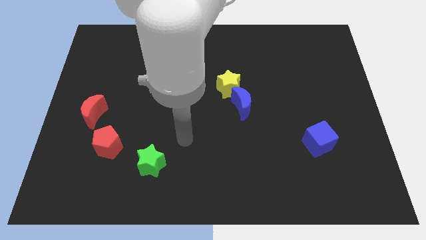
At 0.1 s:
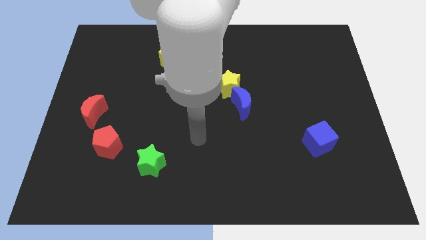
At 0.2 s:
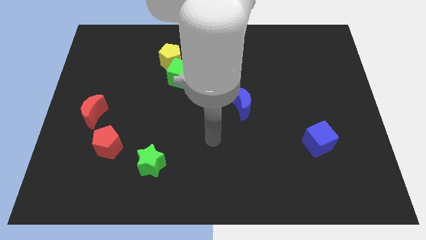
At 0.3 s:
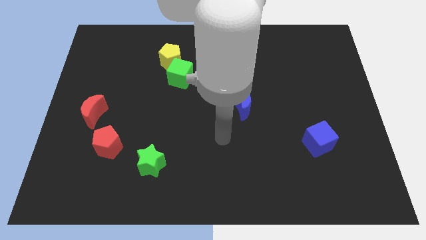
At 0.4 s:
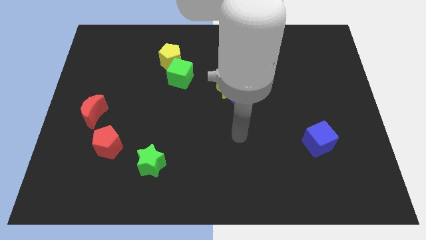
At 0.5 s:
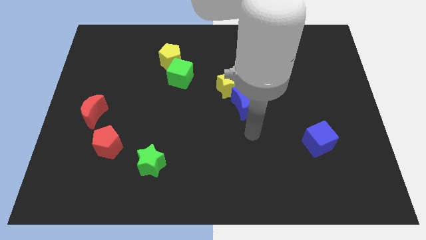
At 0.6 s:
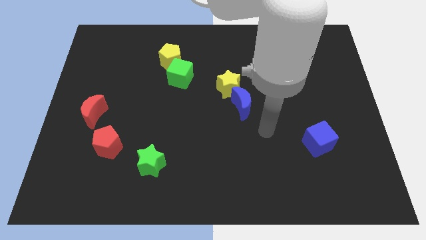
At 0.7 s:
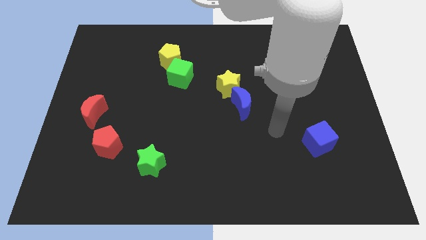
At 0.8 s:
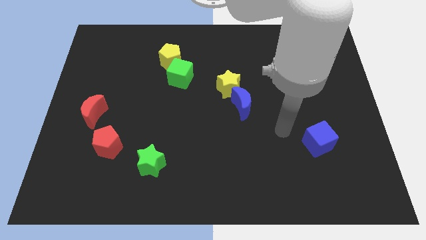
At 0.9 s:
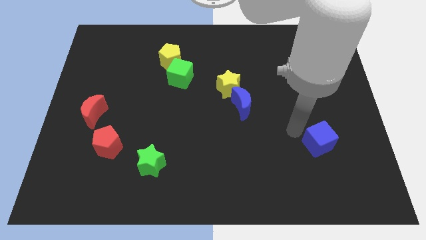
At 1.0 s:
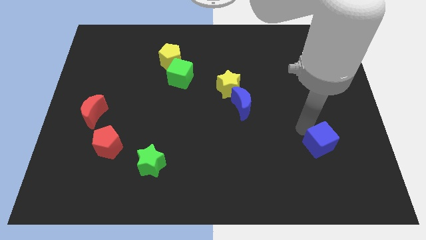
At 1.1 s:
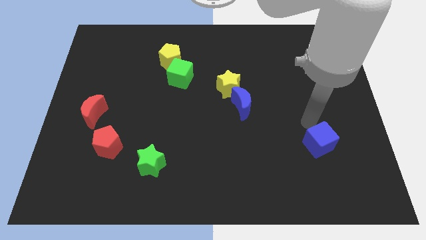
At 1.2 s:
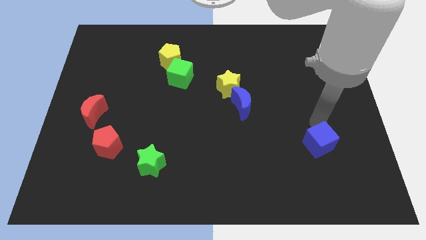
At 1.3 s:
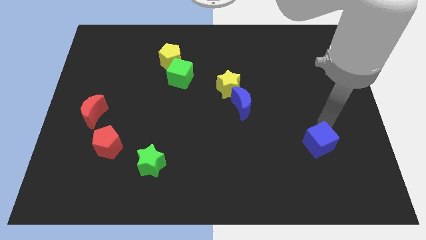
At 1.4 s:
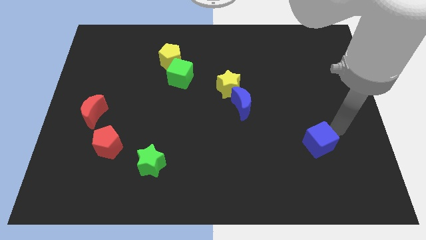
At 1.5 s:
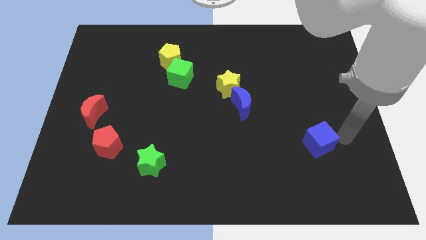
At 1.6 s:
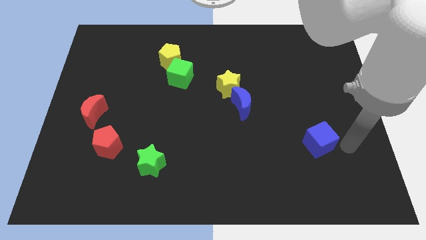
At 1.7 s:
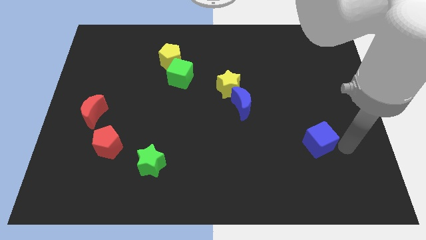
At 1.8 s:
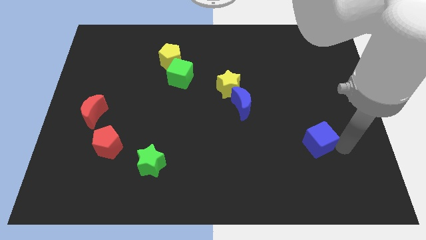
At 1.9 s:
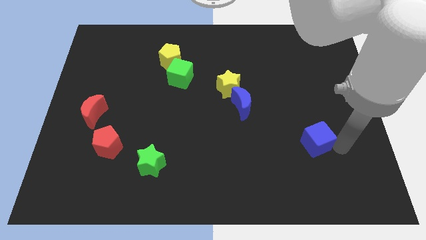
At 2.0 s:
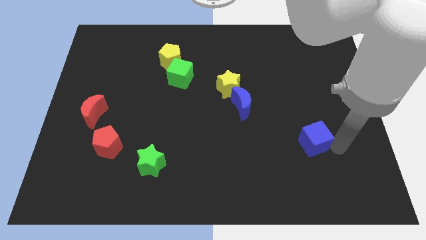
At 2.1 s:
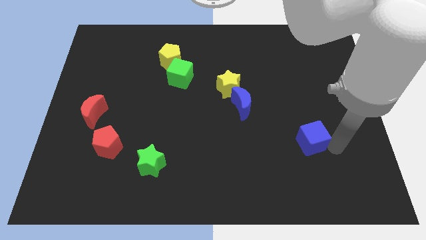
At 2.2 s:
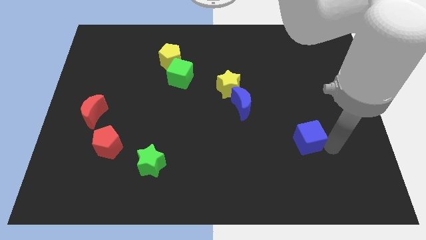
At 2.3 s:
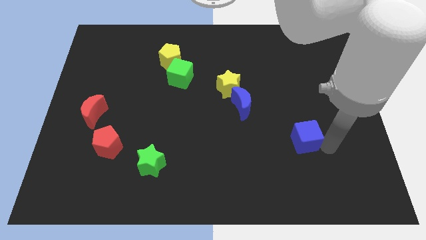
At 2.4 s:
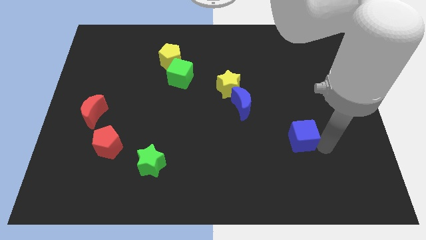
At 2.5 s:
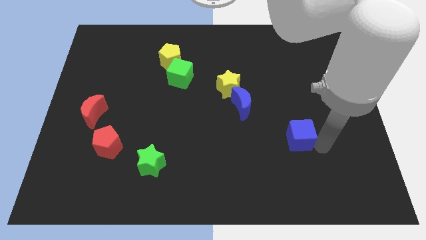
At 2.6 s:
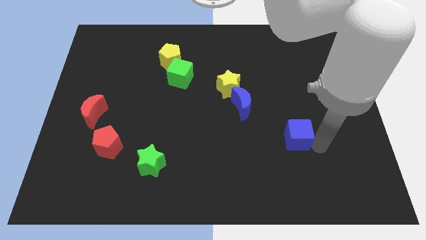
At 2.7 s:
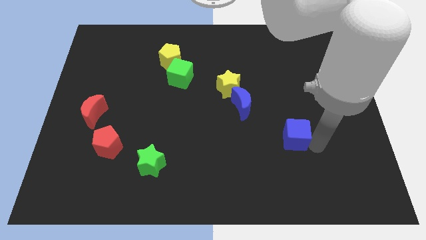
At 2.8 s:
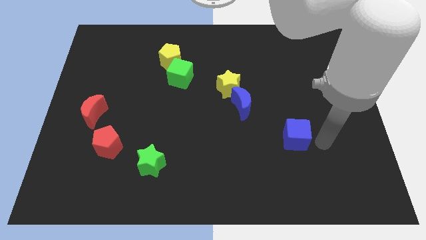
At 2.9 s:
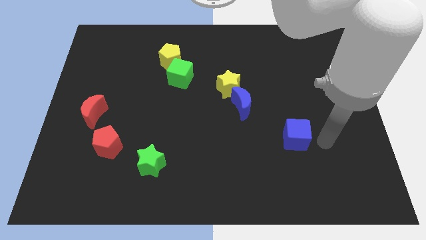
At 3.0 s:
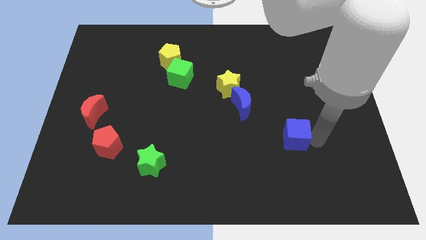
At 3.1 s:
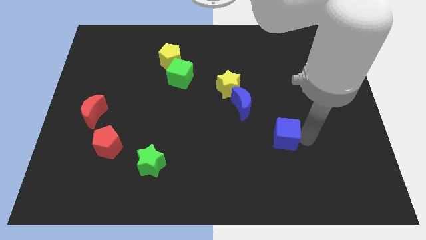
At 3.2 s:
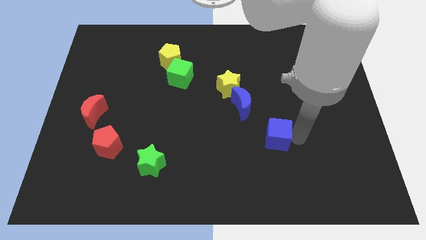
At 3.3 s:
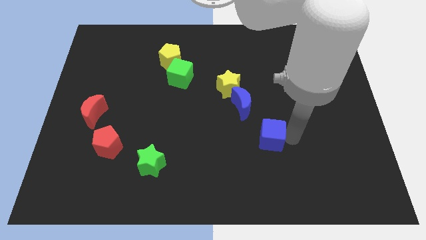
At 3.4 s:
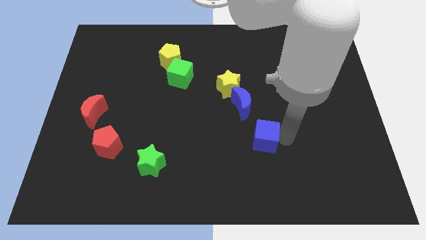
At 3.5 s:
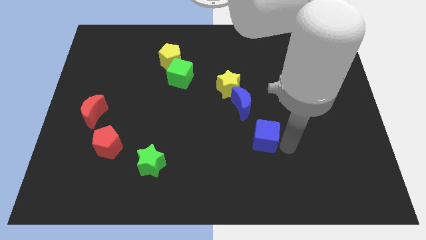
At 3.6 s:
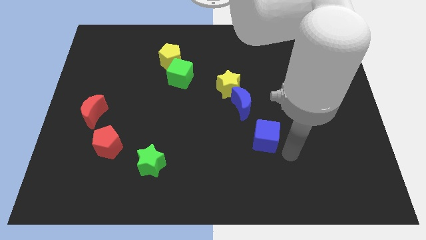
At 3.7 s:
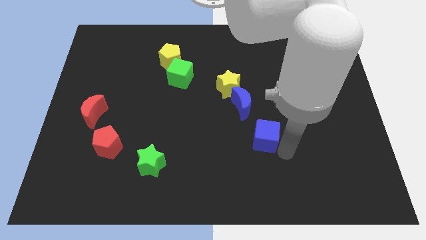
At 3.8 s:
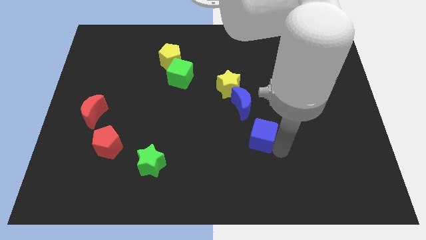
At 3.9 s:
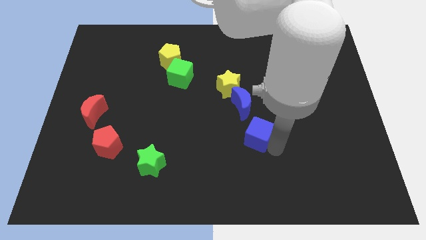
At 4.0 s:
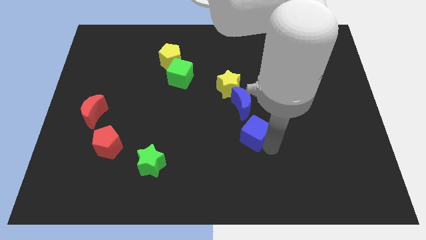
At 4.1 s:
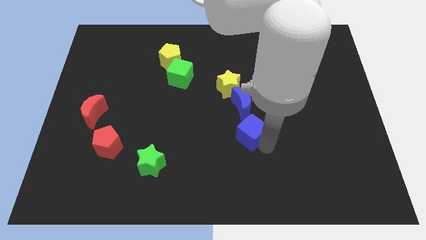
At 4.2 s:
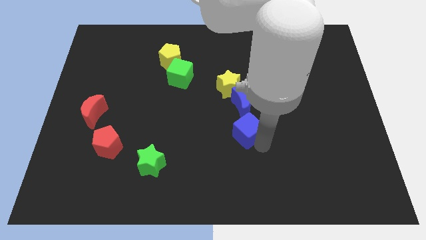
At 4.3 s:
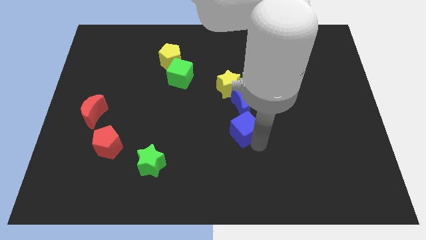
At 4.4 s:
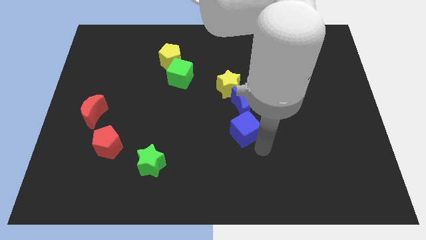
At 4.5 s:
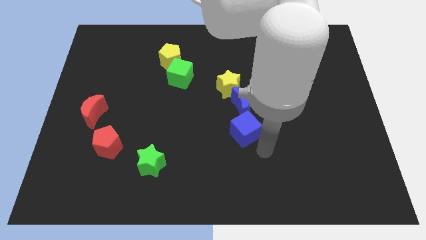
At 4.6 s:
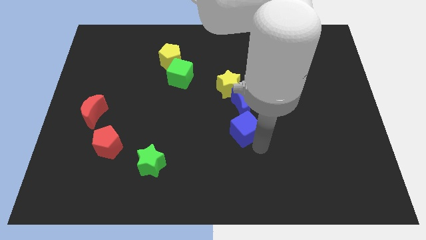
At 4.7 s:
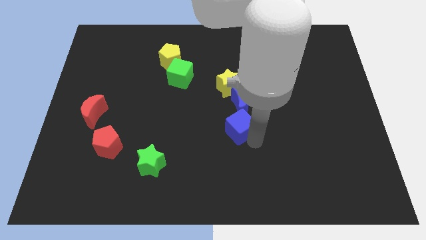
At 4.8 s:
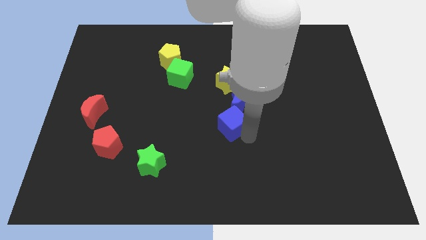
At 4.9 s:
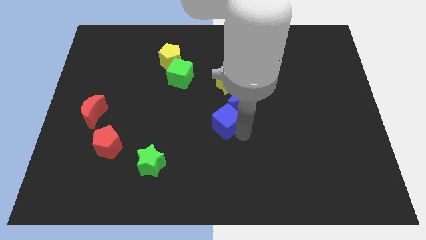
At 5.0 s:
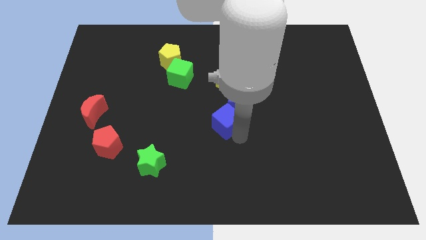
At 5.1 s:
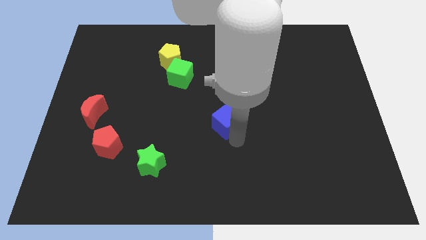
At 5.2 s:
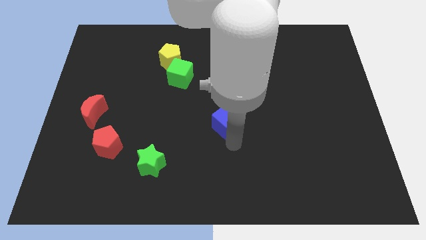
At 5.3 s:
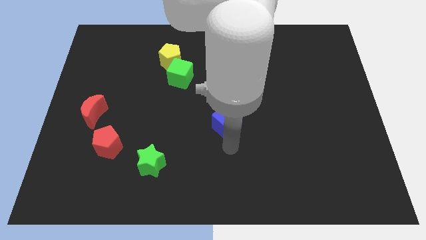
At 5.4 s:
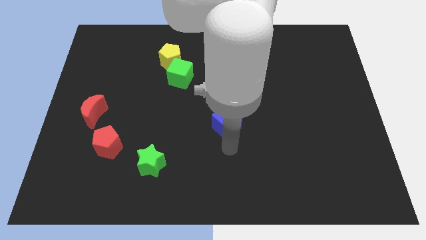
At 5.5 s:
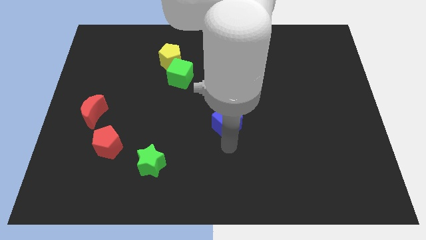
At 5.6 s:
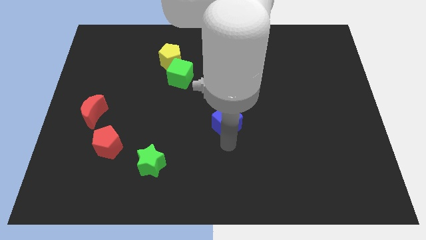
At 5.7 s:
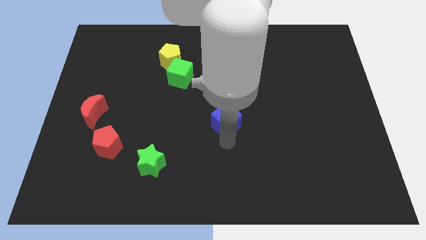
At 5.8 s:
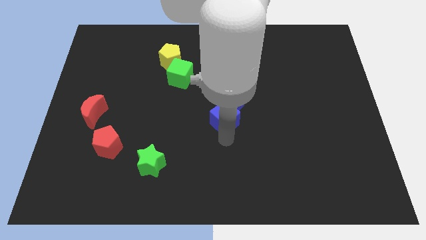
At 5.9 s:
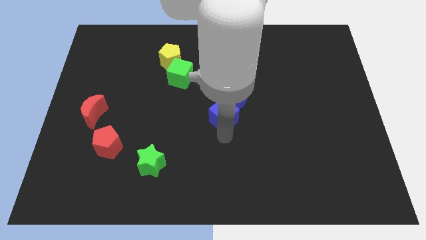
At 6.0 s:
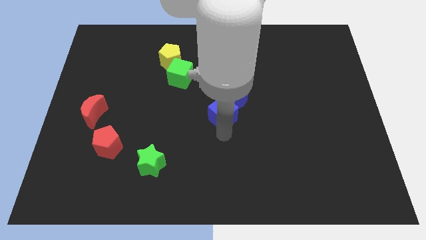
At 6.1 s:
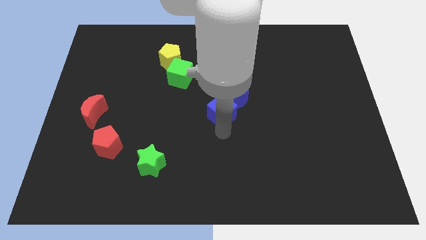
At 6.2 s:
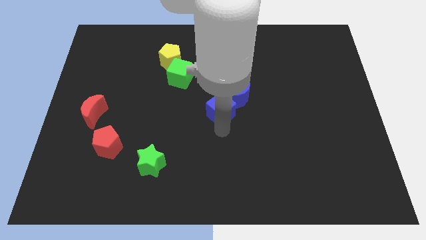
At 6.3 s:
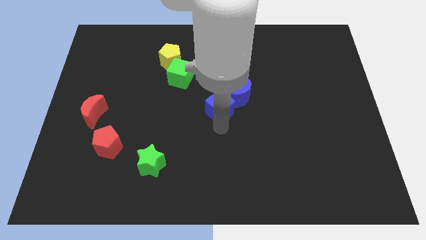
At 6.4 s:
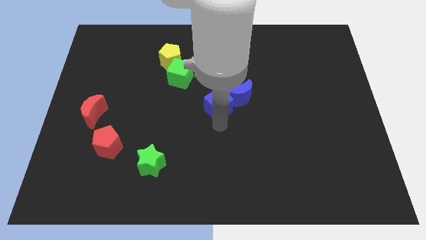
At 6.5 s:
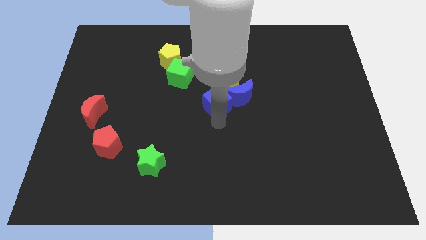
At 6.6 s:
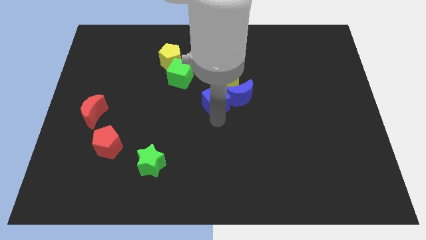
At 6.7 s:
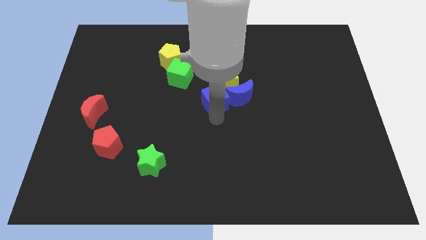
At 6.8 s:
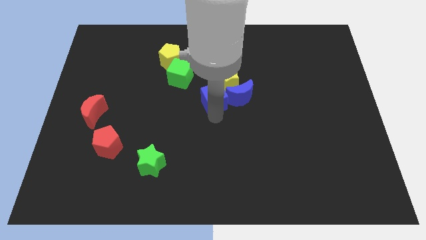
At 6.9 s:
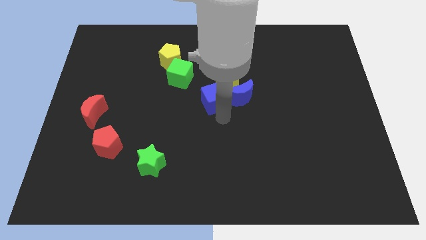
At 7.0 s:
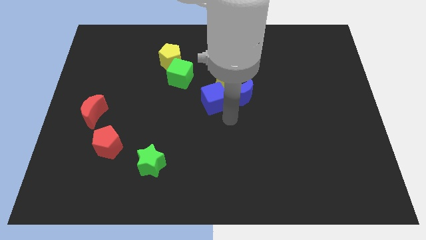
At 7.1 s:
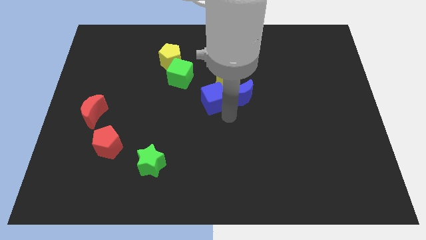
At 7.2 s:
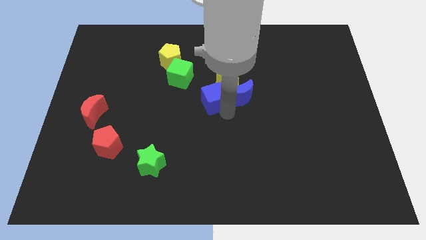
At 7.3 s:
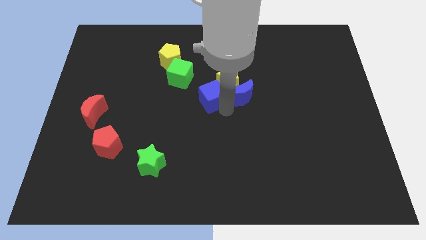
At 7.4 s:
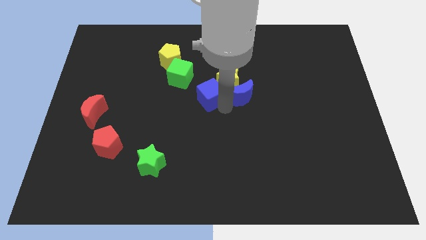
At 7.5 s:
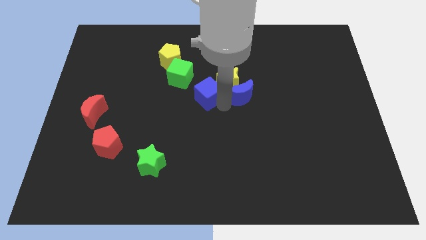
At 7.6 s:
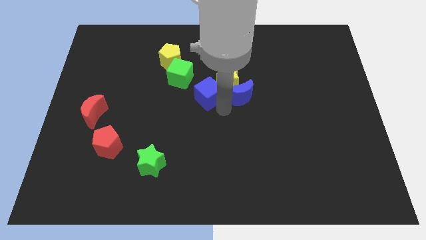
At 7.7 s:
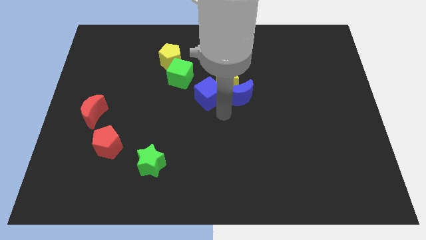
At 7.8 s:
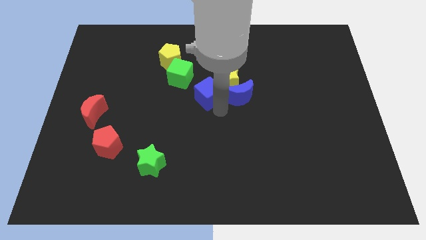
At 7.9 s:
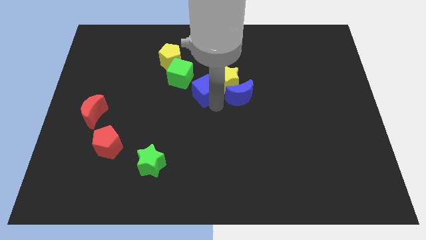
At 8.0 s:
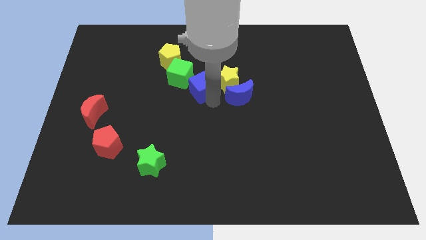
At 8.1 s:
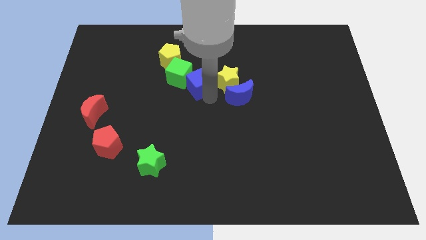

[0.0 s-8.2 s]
put the blue cube close to the green cube
